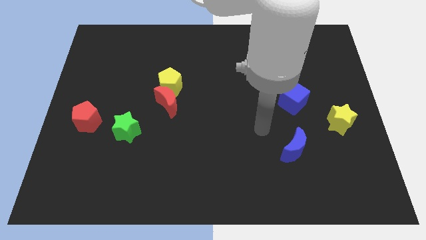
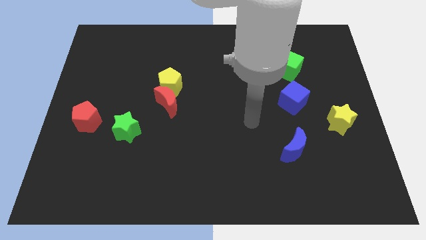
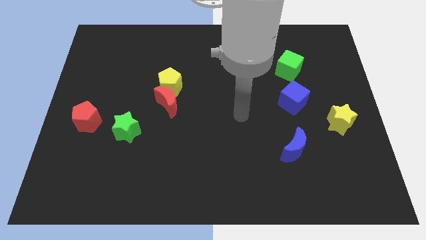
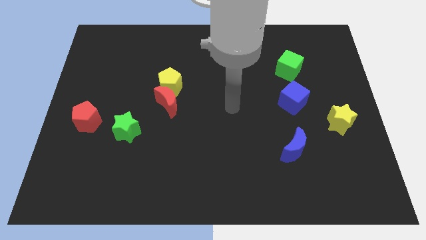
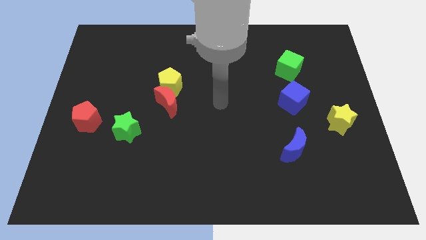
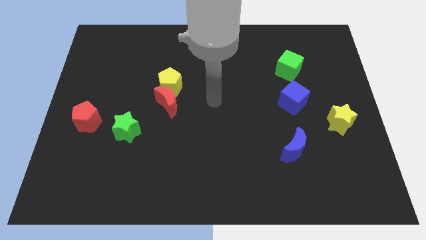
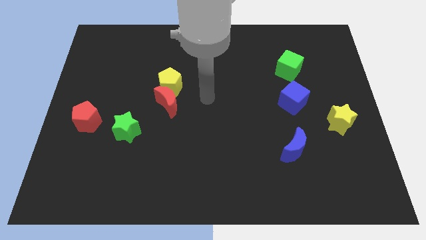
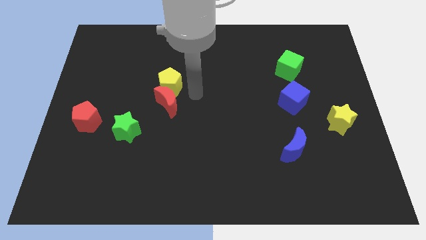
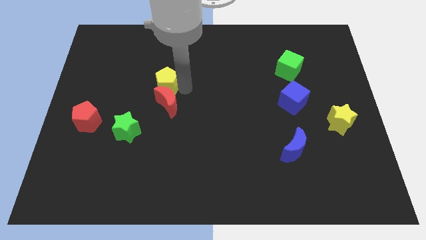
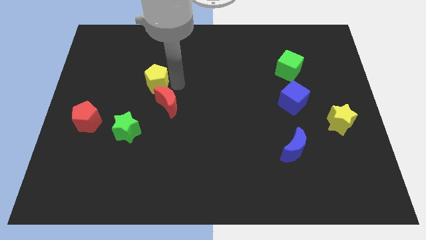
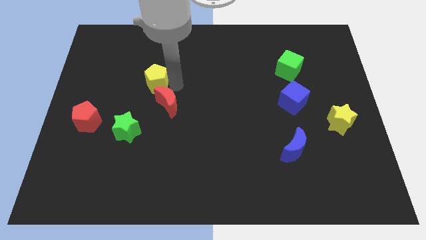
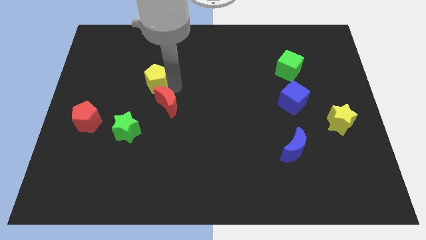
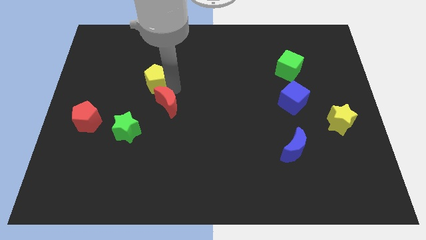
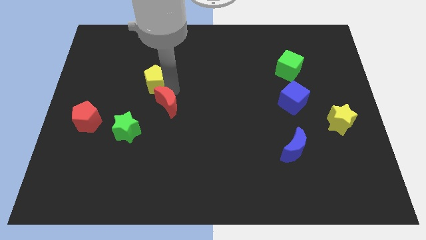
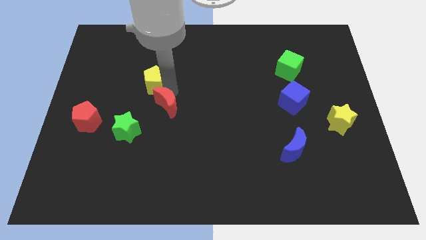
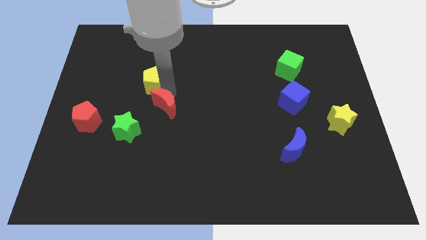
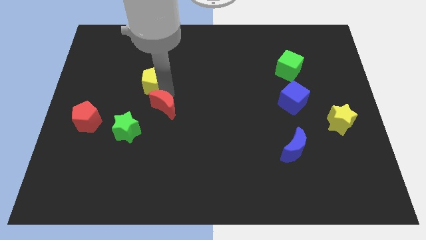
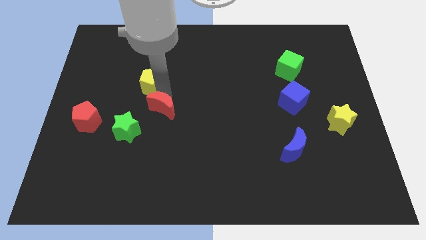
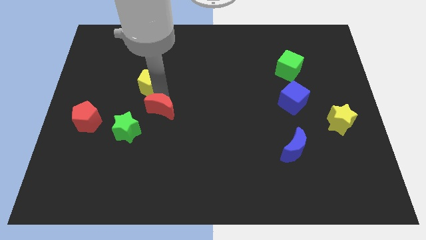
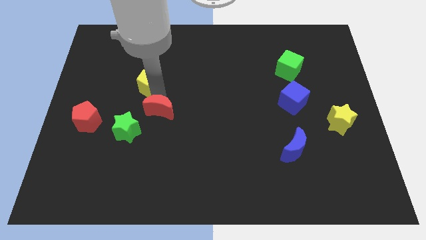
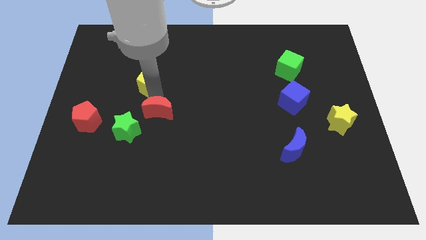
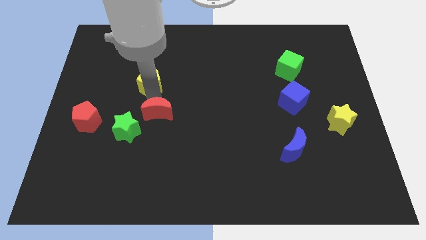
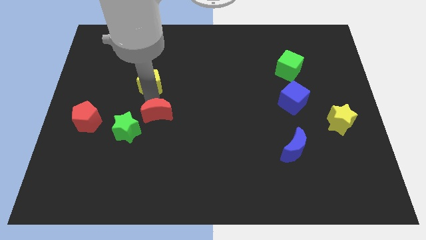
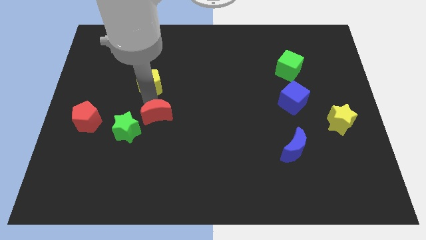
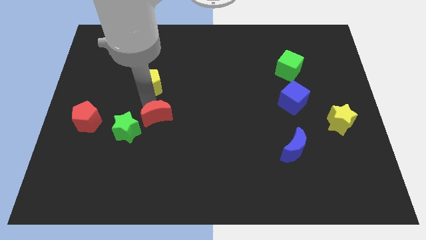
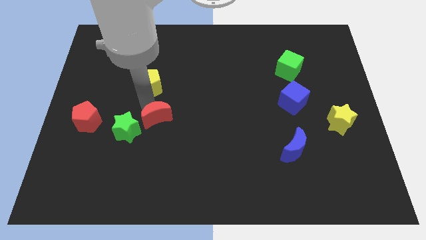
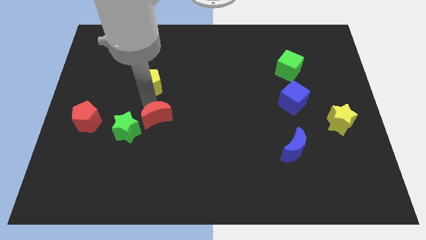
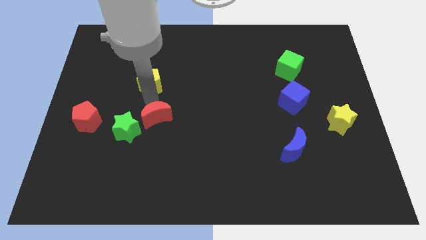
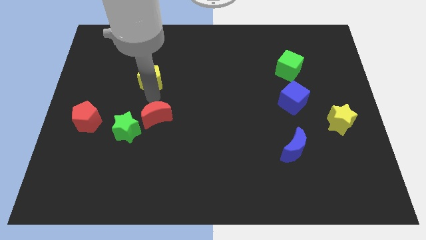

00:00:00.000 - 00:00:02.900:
pull the red moon apart from the yellow pentagon

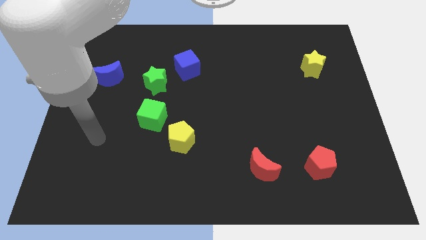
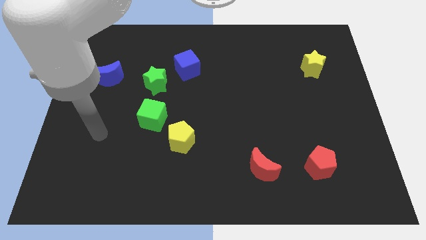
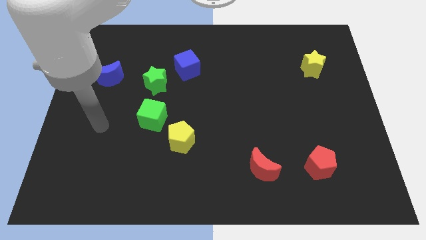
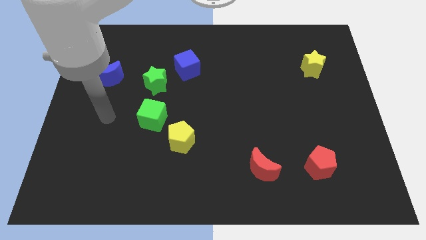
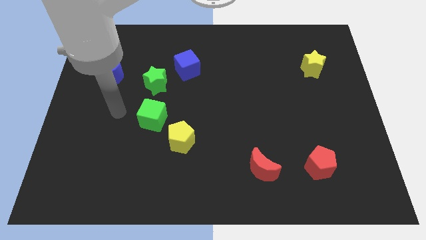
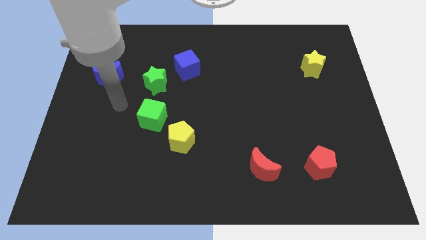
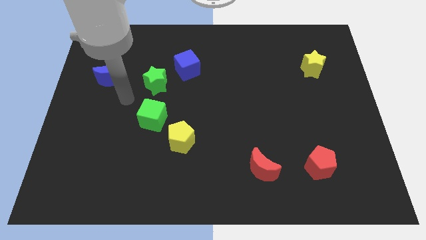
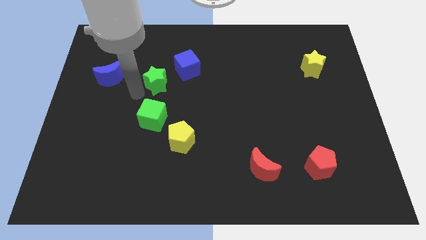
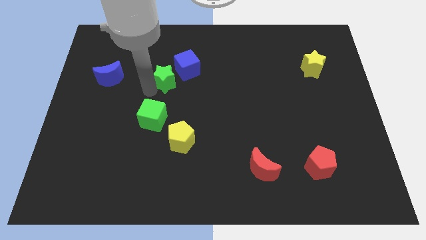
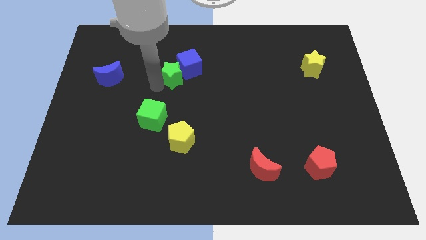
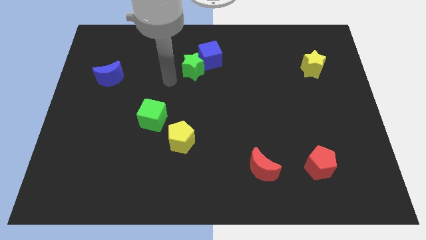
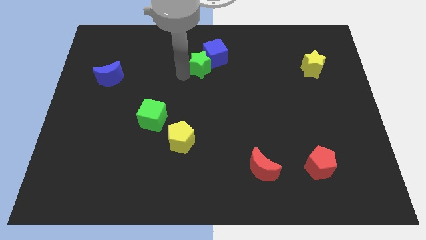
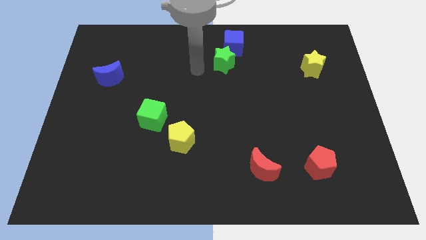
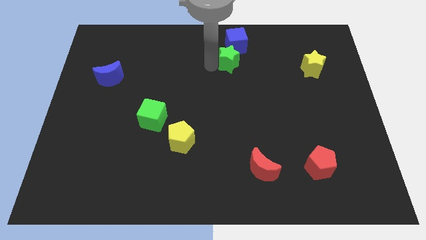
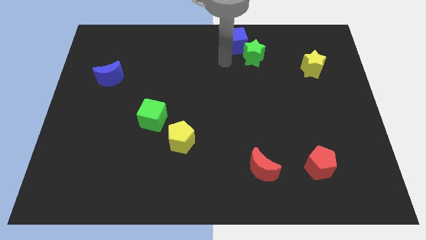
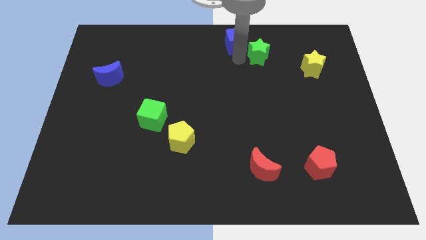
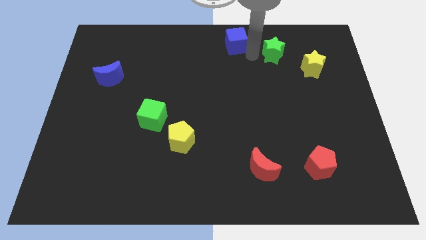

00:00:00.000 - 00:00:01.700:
separate the blue cube from the green star

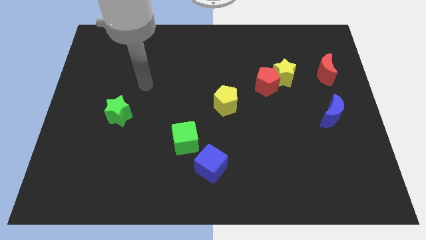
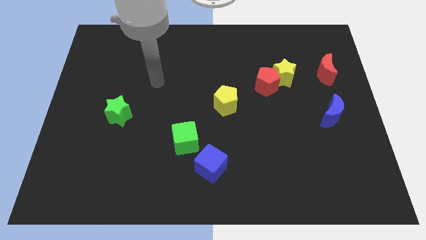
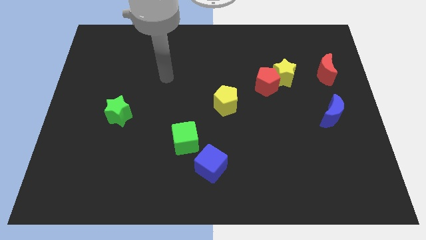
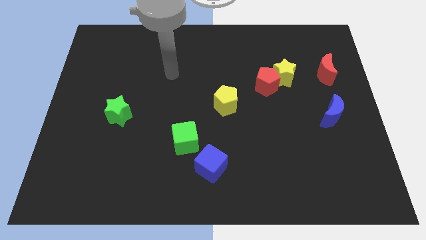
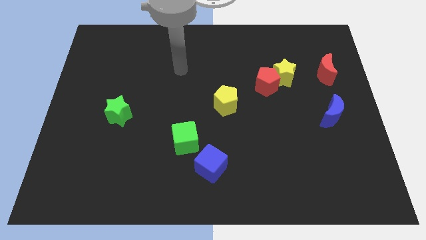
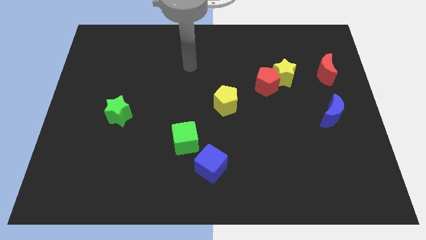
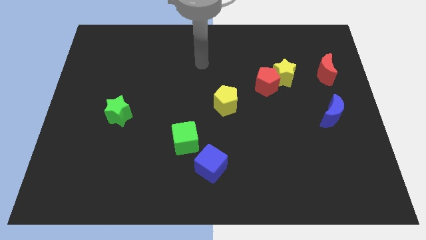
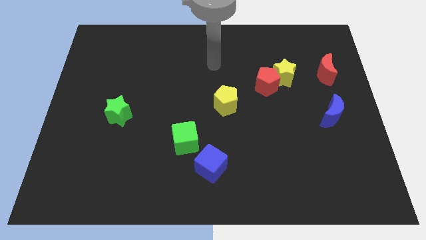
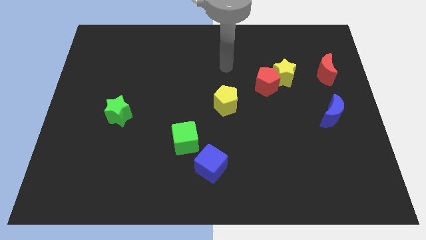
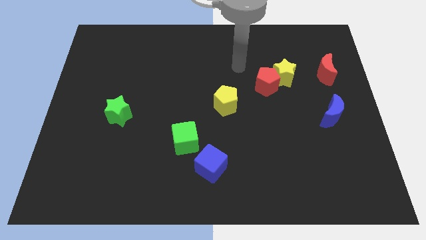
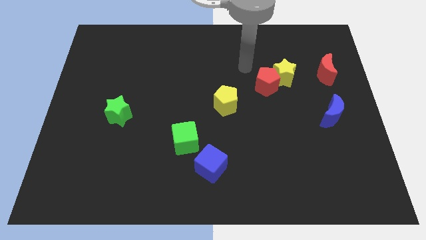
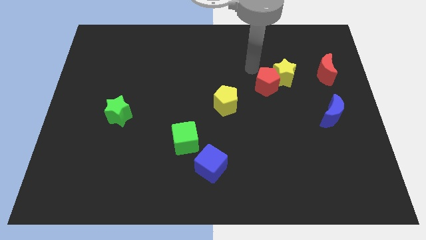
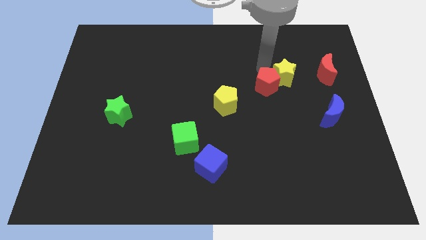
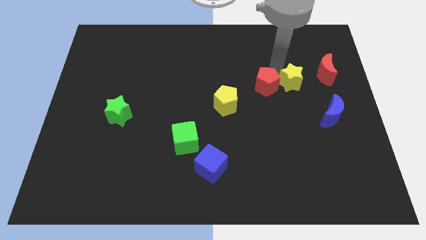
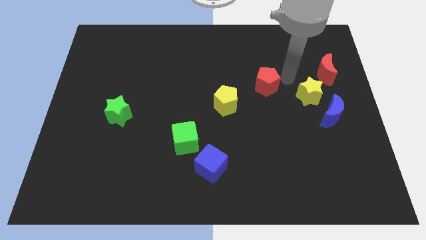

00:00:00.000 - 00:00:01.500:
pull the red pentagon apart from the yellow star

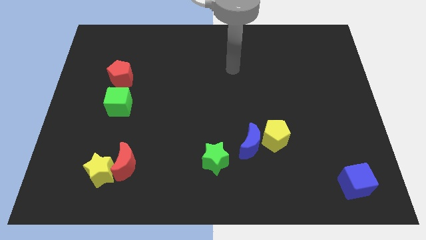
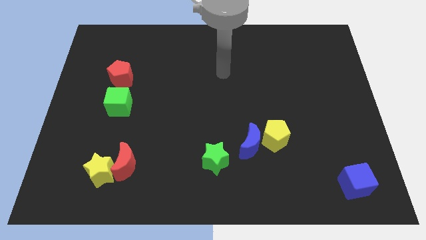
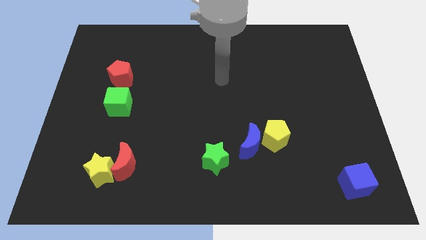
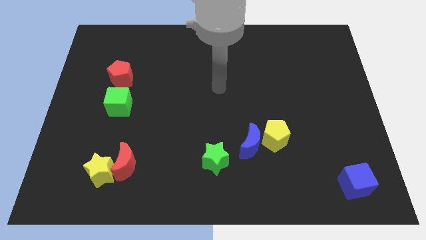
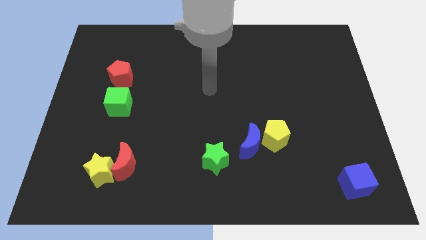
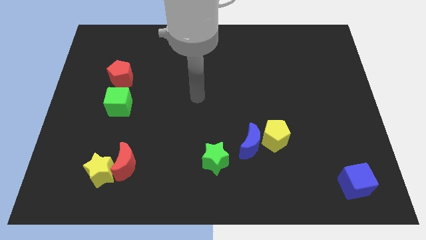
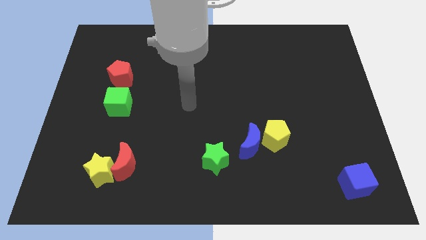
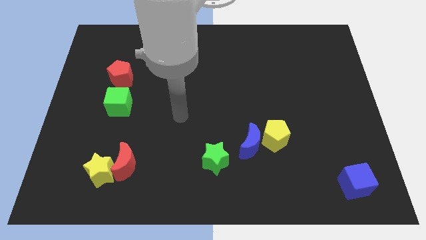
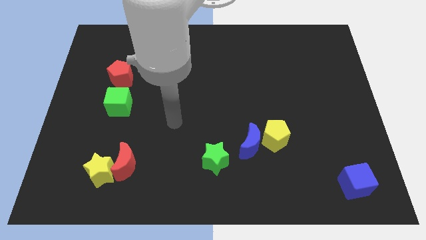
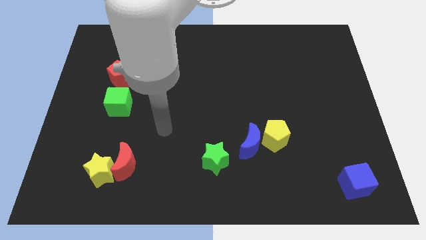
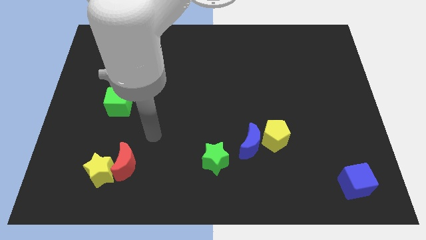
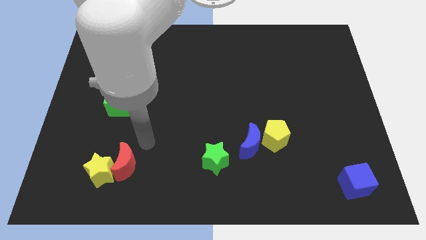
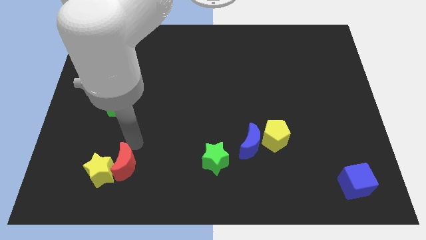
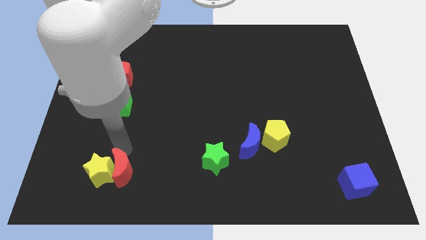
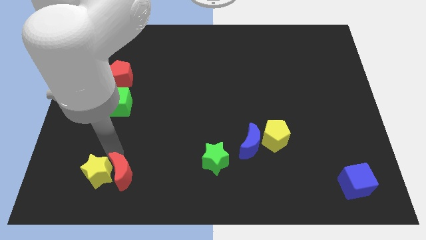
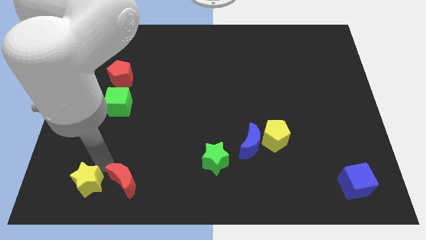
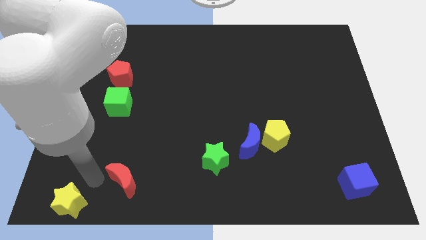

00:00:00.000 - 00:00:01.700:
separate the red moon from the yellow star

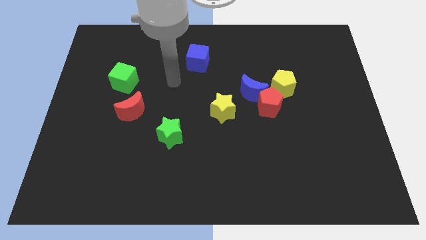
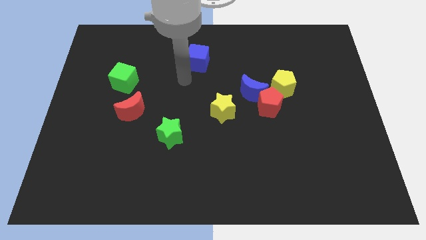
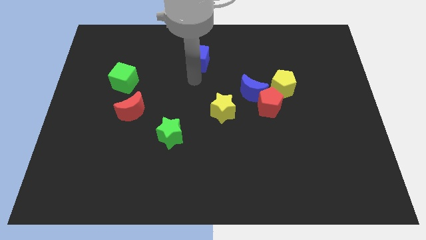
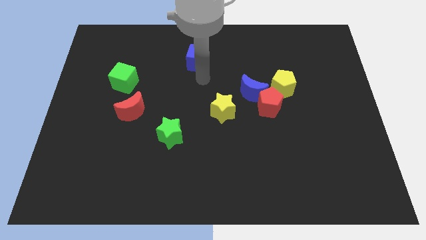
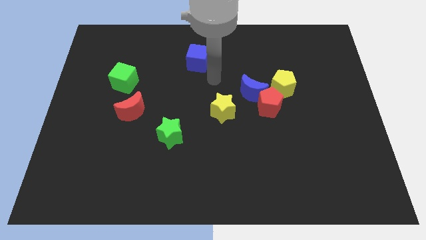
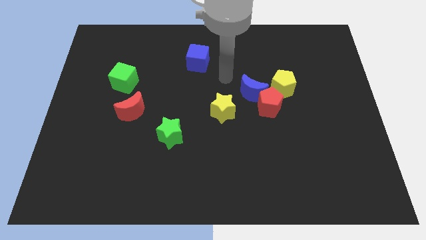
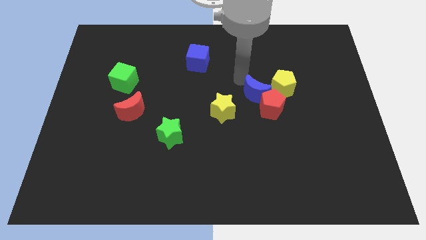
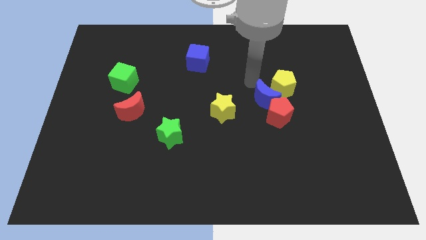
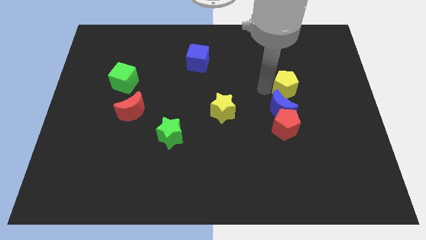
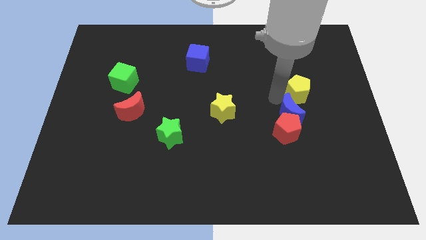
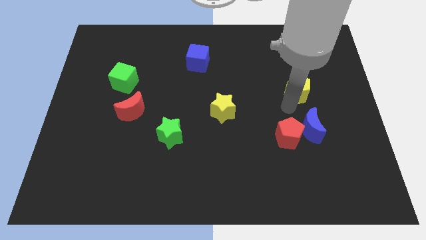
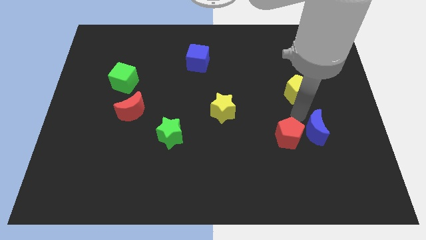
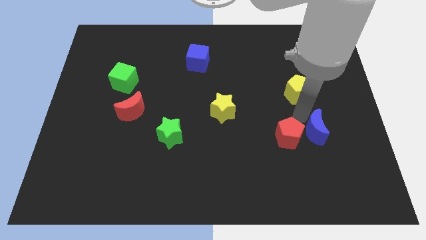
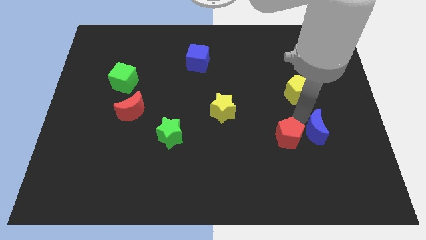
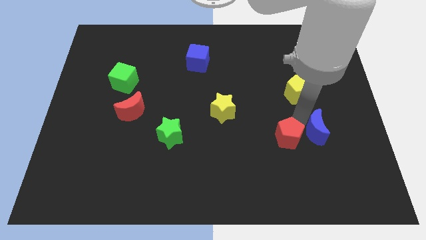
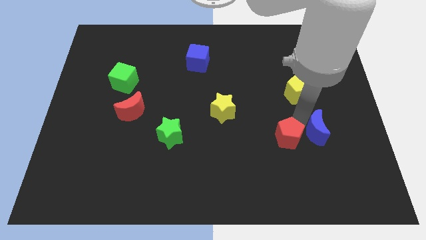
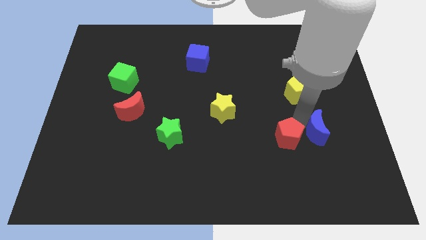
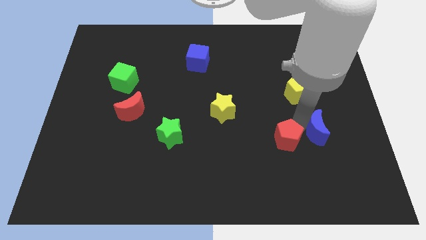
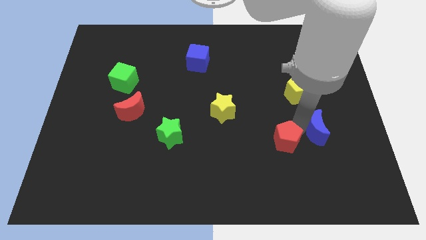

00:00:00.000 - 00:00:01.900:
move the red pentagon away from the blue moon and yellow pentagon
